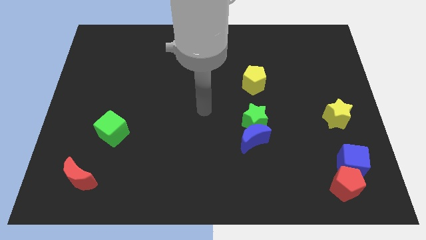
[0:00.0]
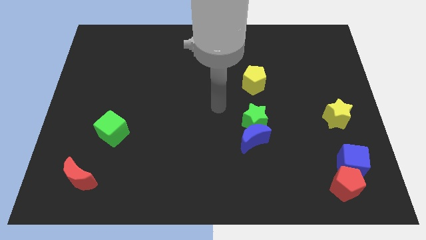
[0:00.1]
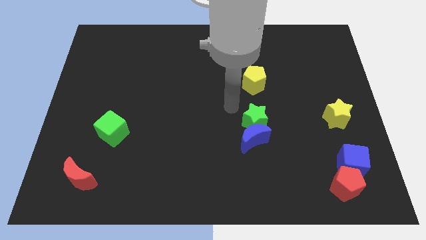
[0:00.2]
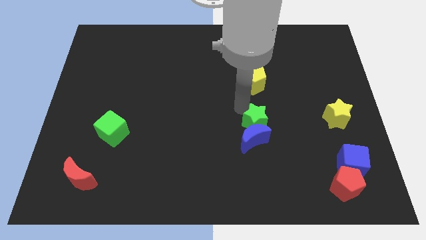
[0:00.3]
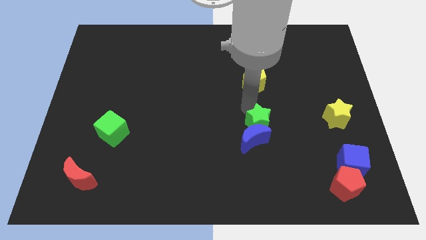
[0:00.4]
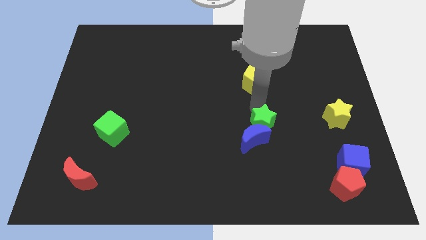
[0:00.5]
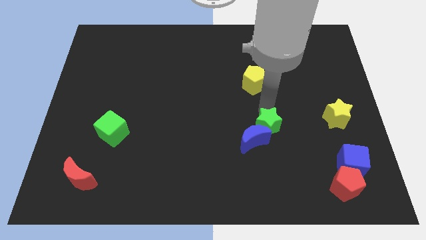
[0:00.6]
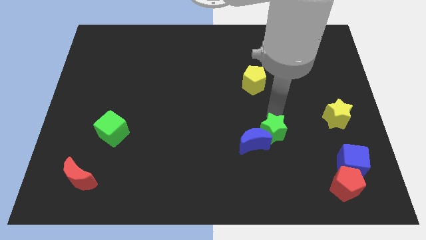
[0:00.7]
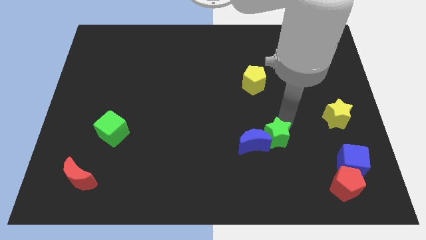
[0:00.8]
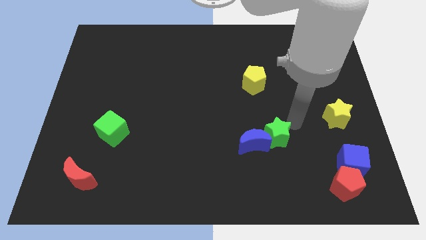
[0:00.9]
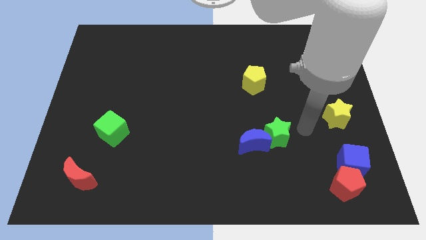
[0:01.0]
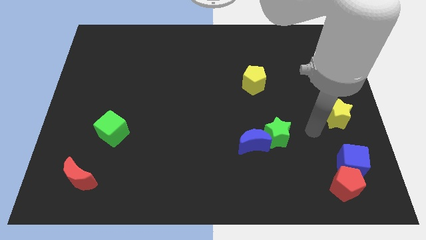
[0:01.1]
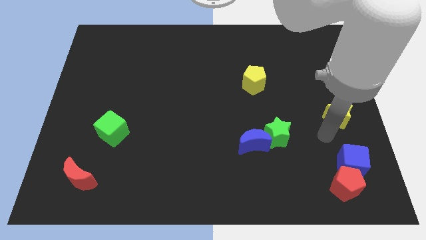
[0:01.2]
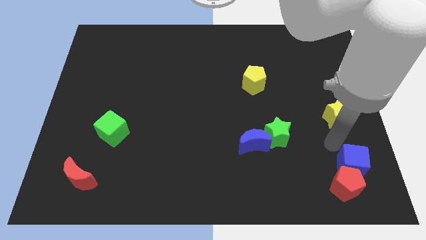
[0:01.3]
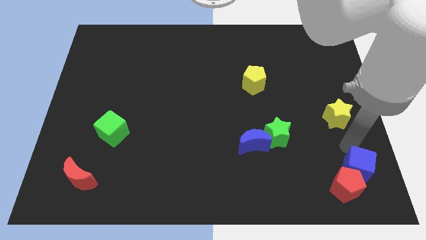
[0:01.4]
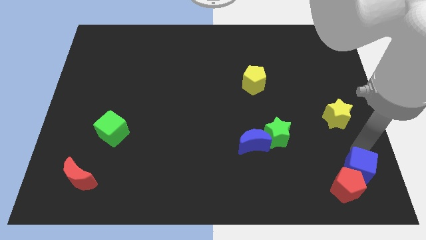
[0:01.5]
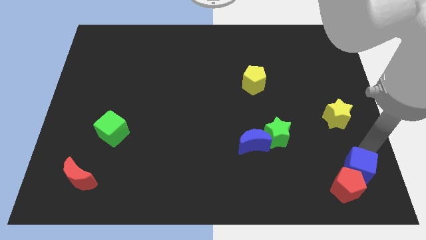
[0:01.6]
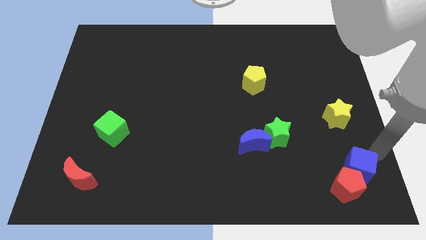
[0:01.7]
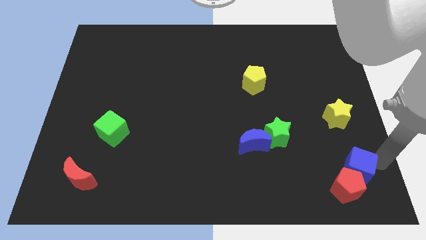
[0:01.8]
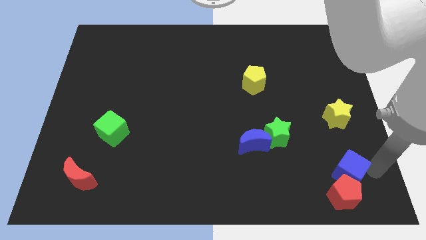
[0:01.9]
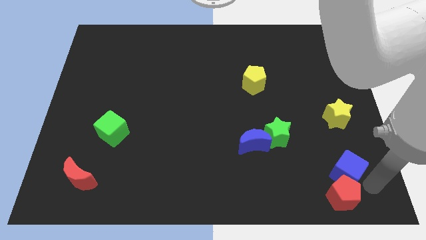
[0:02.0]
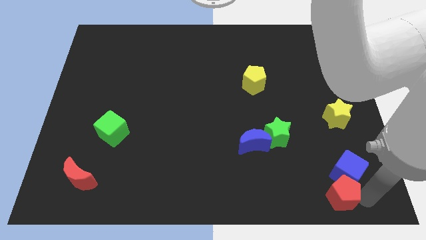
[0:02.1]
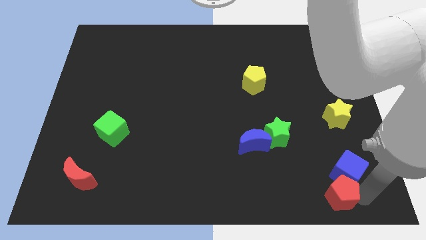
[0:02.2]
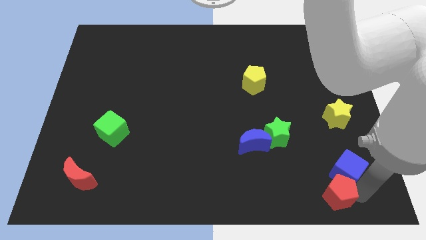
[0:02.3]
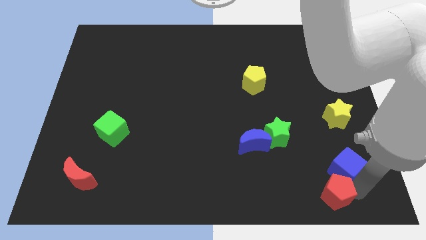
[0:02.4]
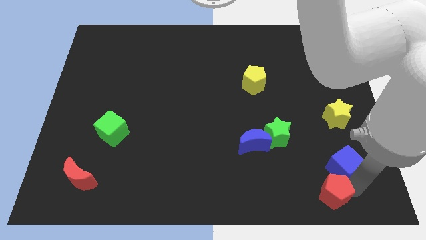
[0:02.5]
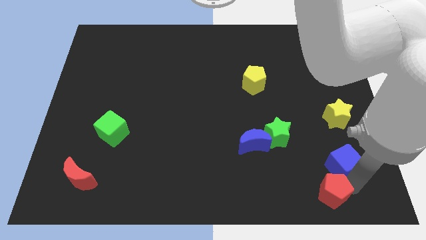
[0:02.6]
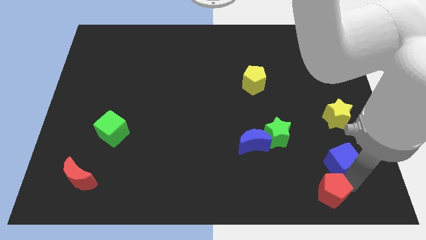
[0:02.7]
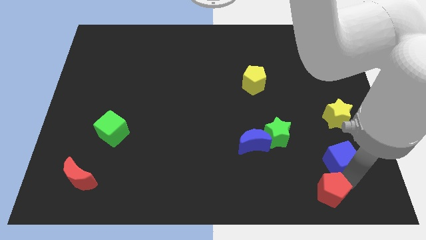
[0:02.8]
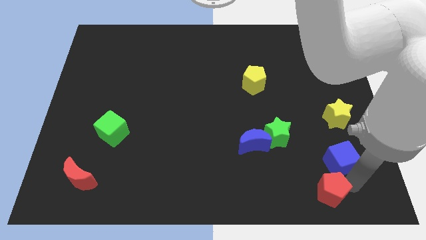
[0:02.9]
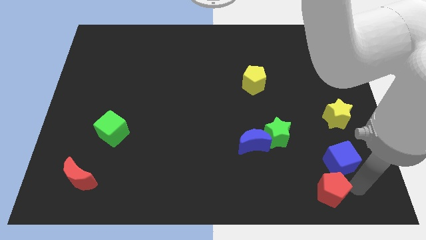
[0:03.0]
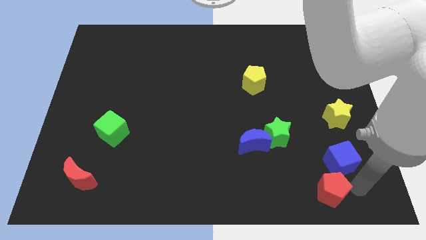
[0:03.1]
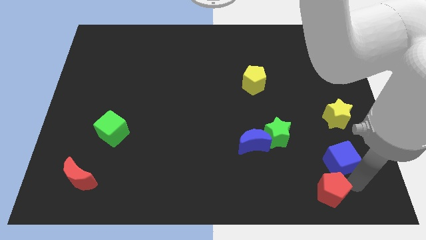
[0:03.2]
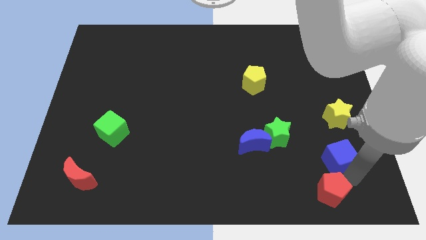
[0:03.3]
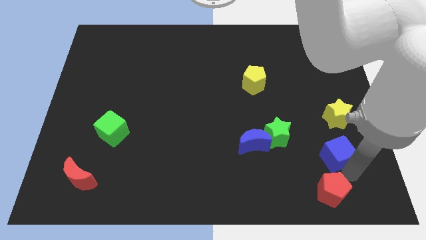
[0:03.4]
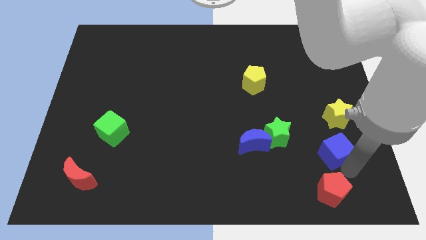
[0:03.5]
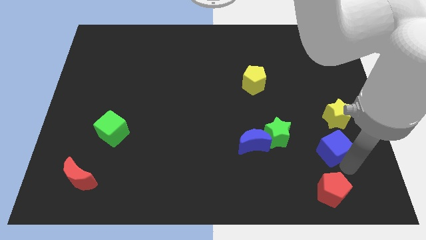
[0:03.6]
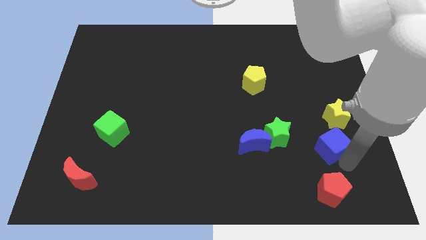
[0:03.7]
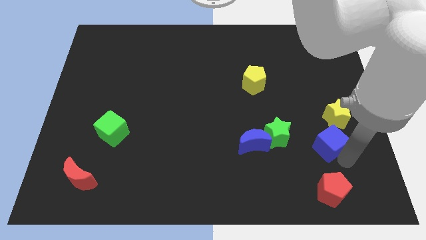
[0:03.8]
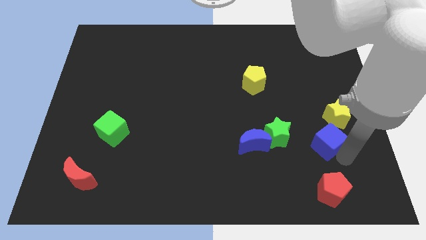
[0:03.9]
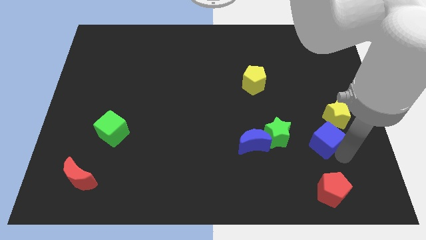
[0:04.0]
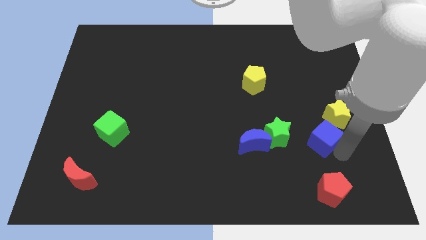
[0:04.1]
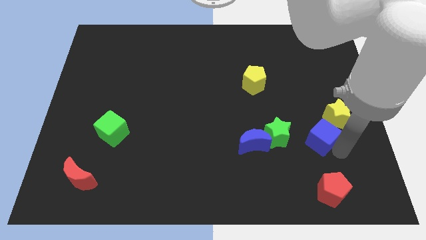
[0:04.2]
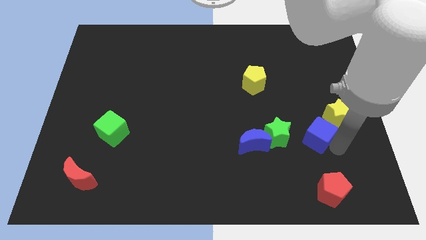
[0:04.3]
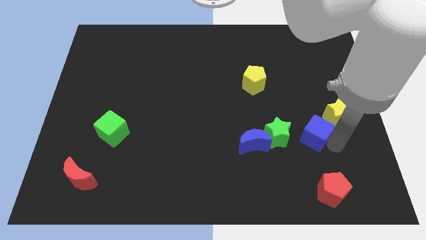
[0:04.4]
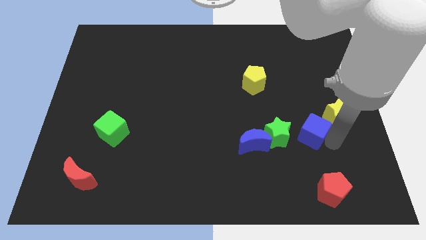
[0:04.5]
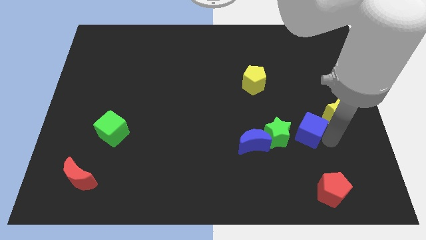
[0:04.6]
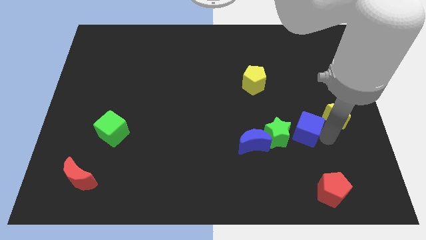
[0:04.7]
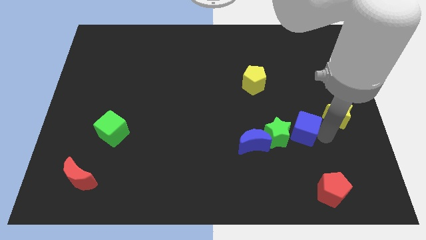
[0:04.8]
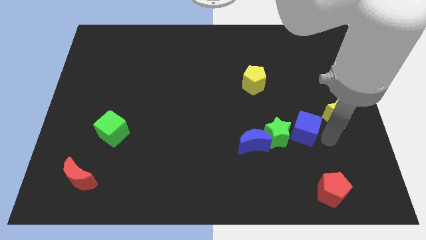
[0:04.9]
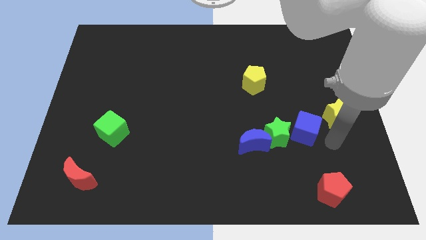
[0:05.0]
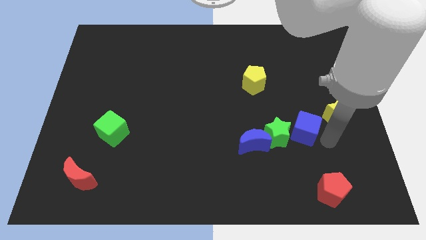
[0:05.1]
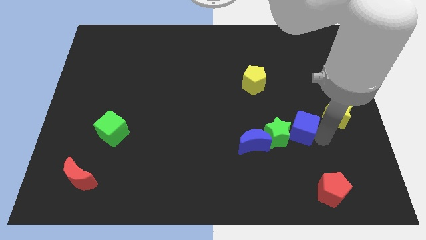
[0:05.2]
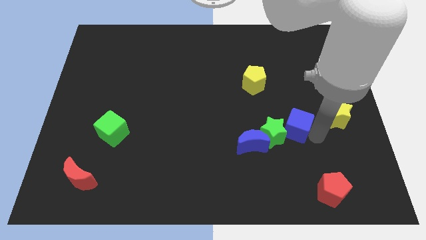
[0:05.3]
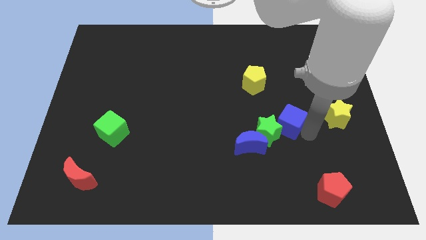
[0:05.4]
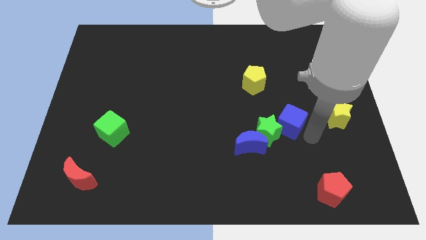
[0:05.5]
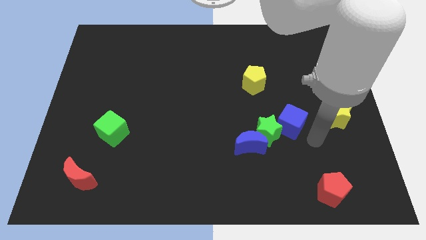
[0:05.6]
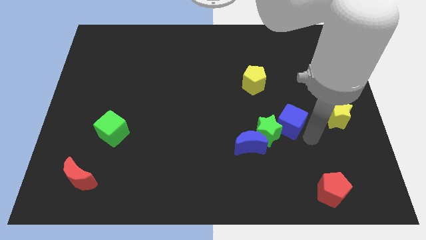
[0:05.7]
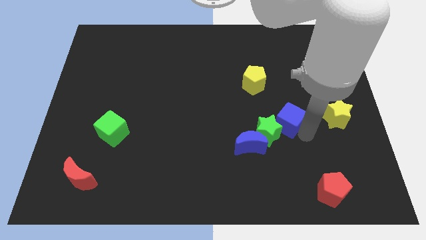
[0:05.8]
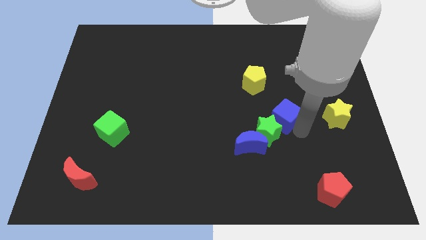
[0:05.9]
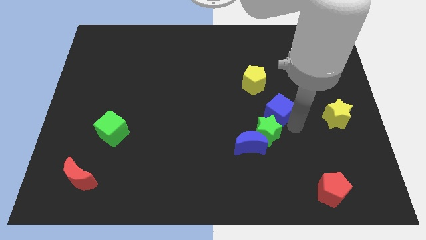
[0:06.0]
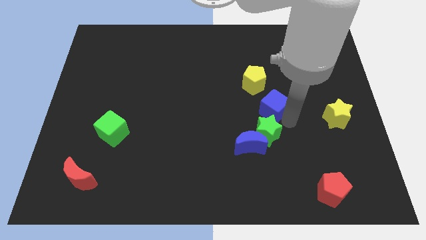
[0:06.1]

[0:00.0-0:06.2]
push the blue cube up and to the left diagonally

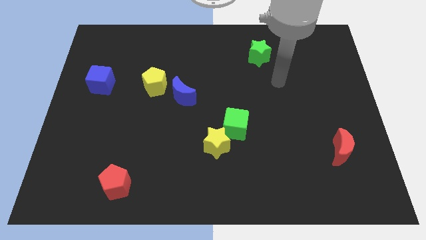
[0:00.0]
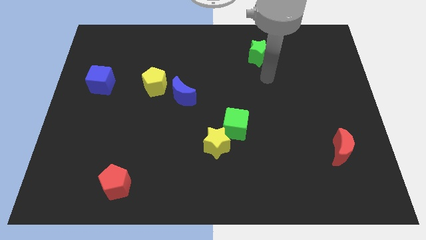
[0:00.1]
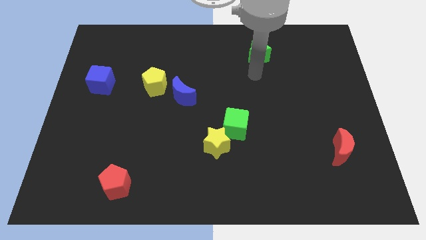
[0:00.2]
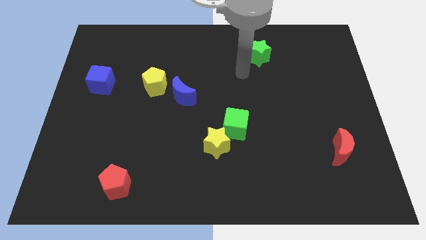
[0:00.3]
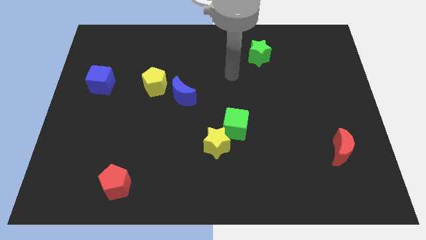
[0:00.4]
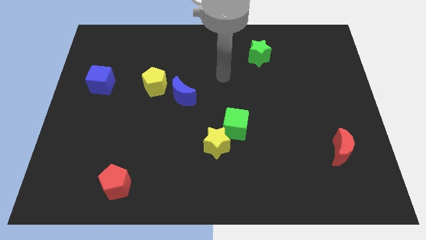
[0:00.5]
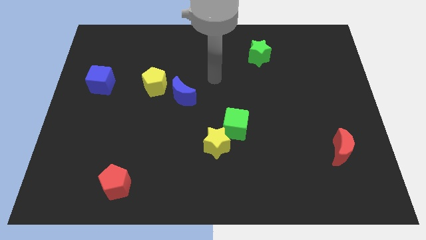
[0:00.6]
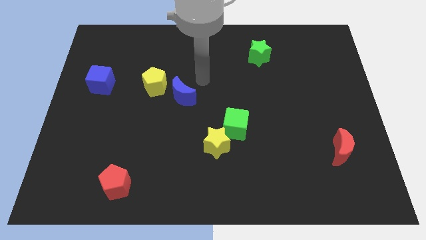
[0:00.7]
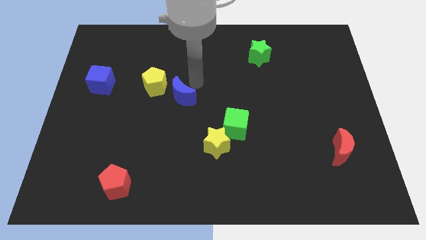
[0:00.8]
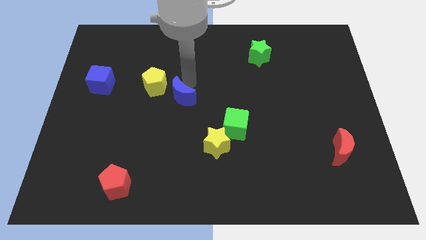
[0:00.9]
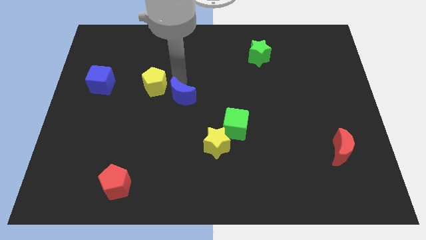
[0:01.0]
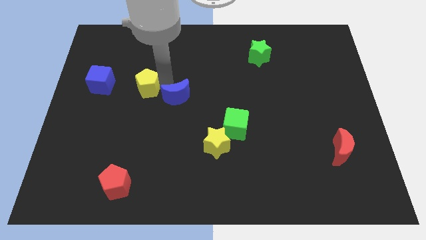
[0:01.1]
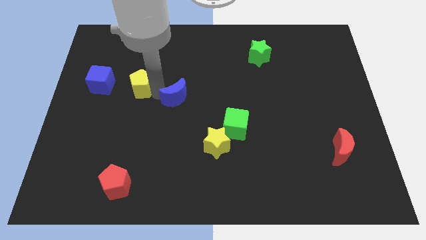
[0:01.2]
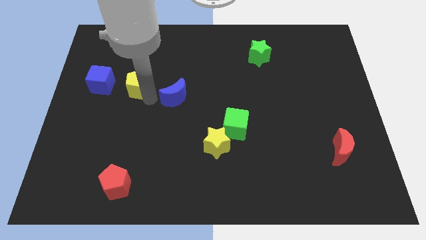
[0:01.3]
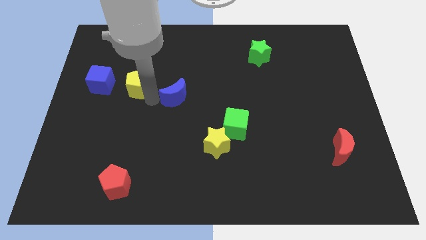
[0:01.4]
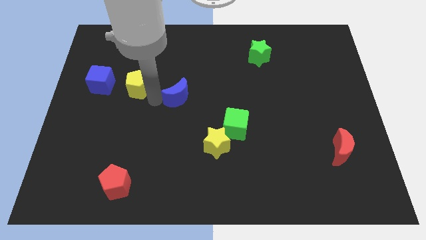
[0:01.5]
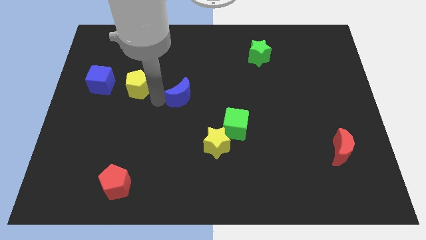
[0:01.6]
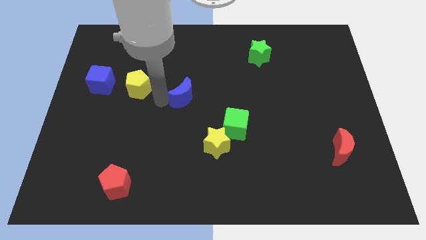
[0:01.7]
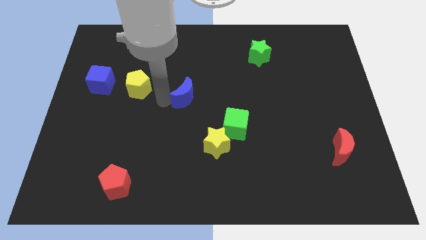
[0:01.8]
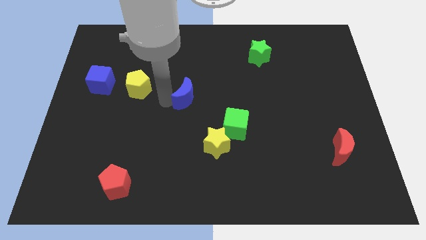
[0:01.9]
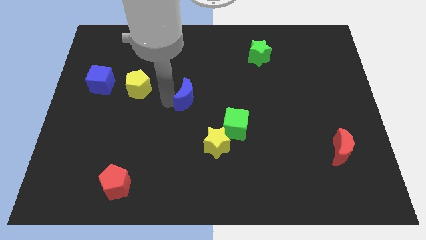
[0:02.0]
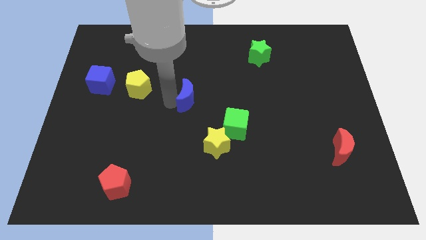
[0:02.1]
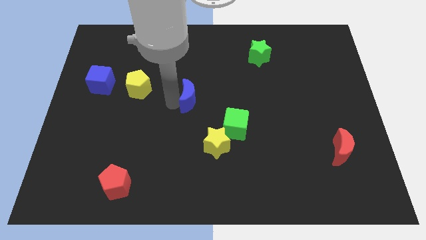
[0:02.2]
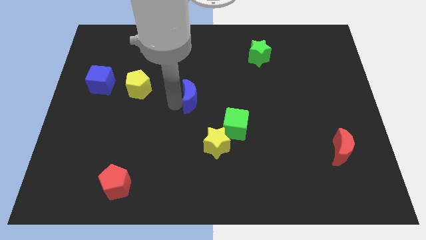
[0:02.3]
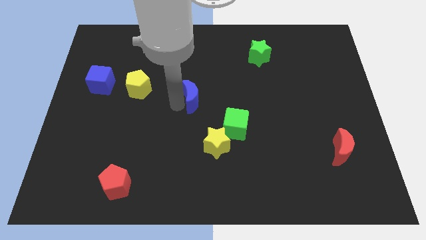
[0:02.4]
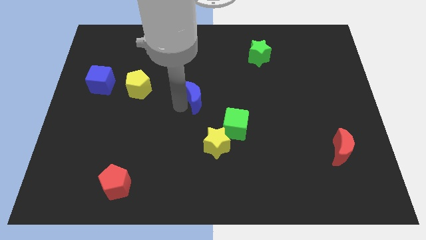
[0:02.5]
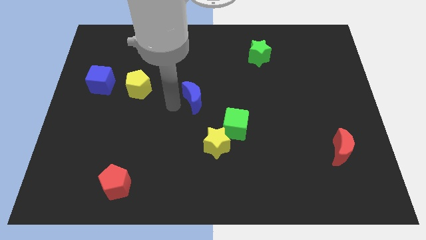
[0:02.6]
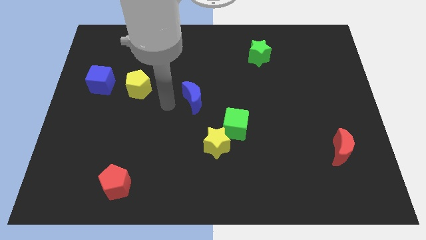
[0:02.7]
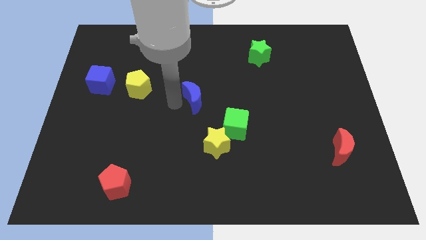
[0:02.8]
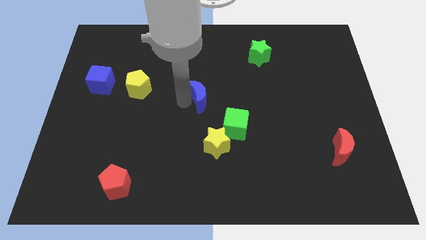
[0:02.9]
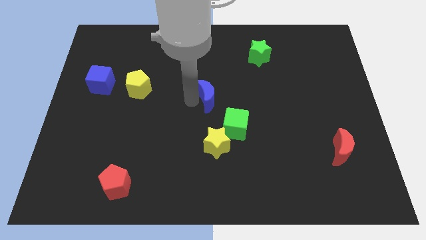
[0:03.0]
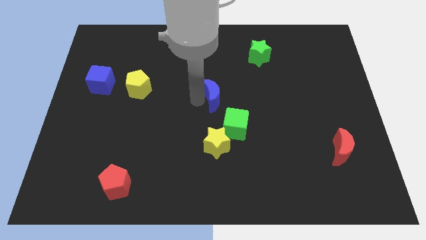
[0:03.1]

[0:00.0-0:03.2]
slide the blue moon a little to the right
